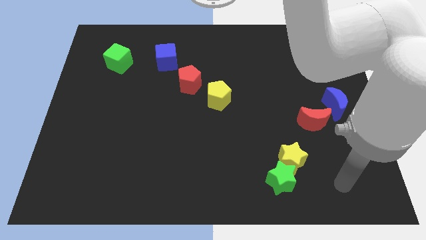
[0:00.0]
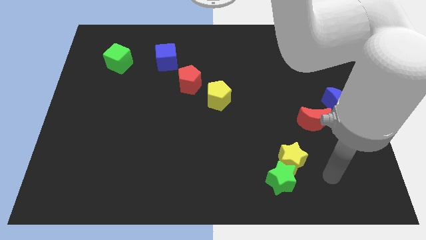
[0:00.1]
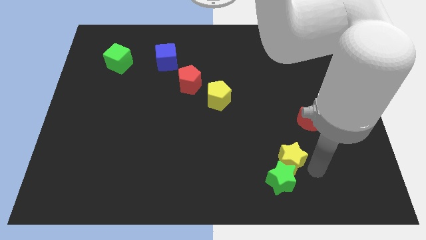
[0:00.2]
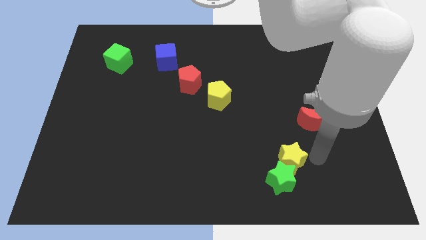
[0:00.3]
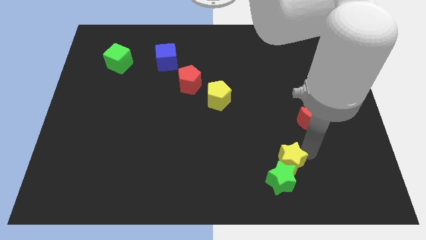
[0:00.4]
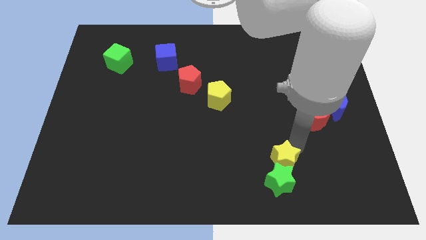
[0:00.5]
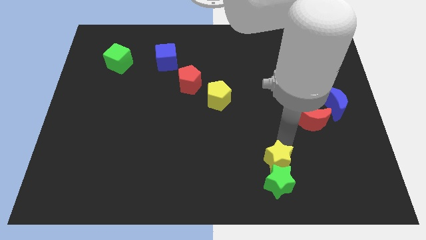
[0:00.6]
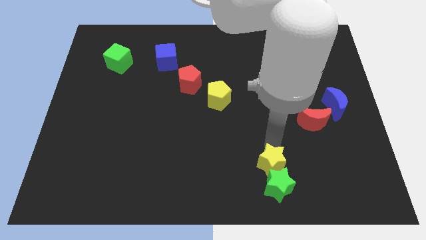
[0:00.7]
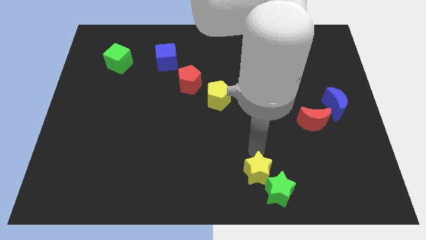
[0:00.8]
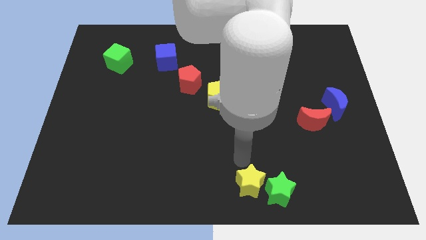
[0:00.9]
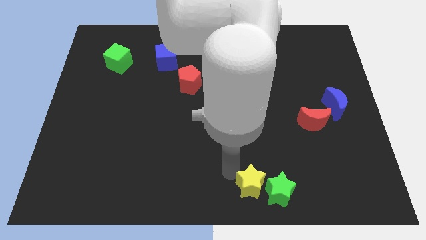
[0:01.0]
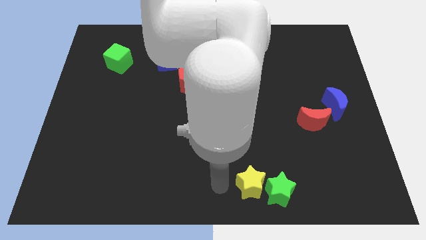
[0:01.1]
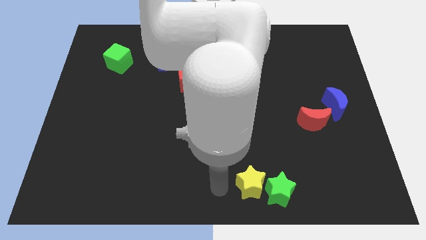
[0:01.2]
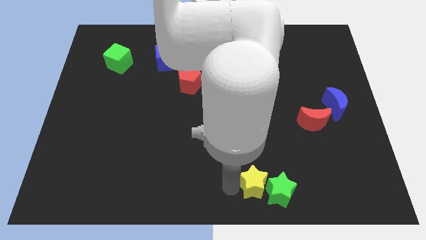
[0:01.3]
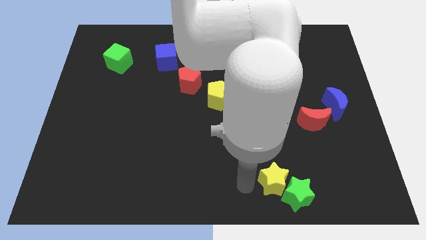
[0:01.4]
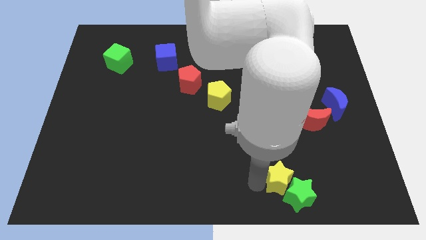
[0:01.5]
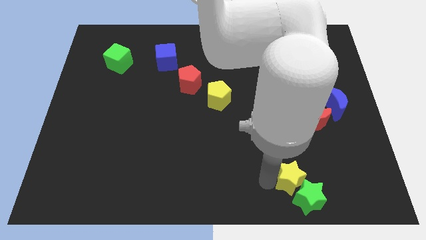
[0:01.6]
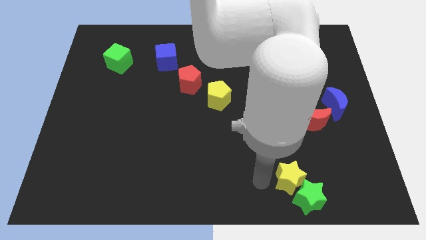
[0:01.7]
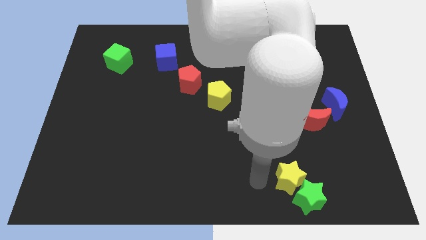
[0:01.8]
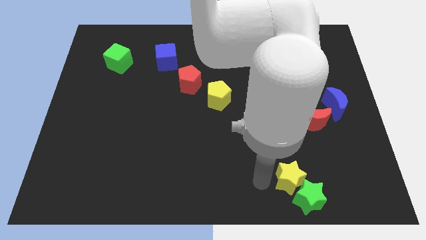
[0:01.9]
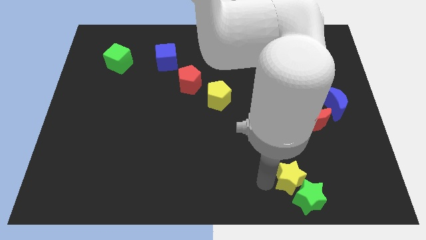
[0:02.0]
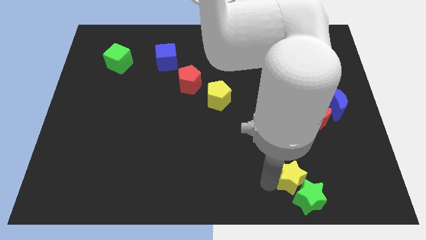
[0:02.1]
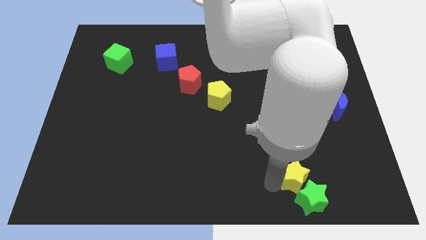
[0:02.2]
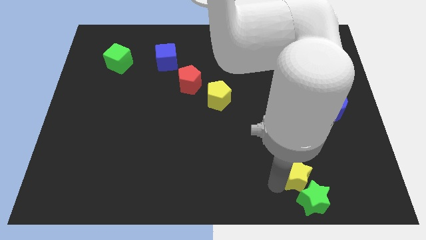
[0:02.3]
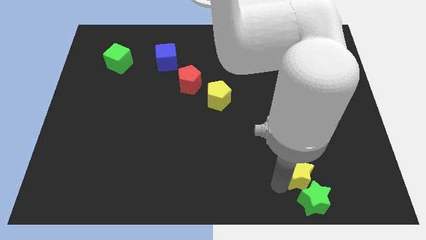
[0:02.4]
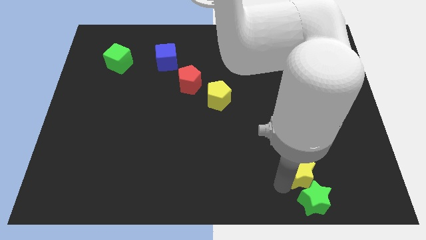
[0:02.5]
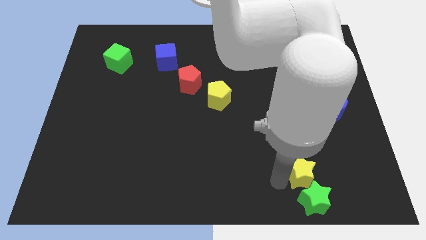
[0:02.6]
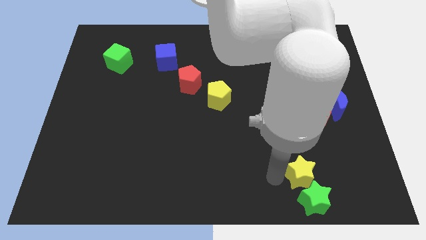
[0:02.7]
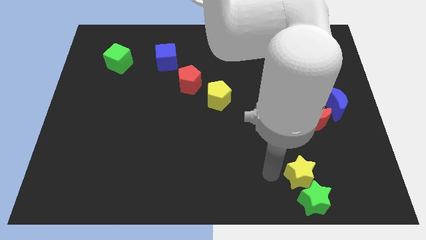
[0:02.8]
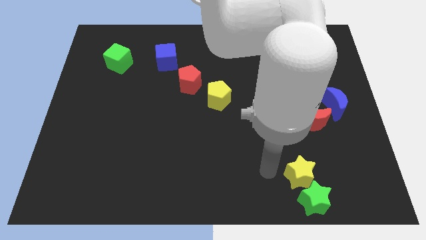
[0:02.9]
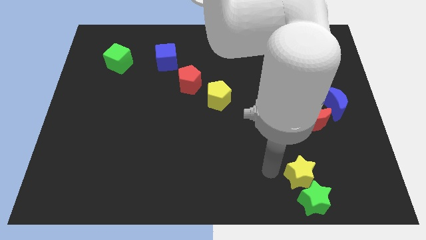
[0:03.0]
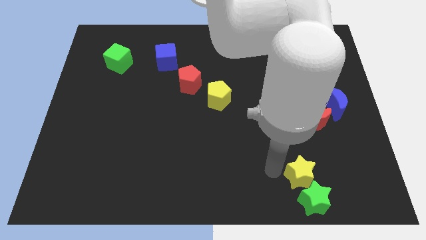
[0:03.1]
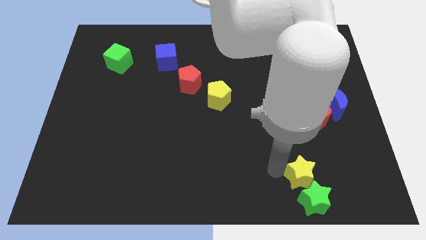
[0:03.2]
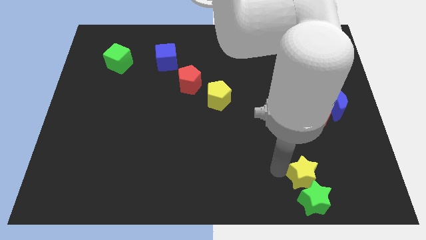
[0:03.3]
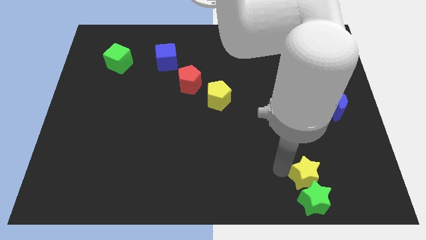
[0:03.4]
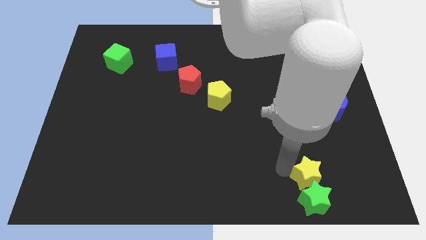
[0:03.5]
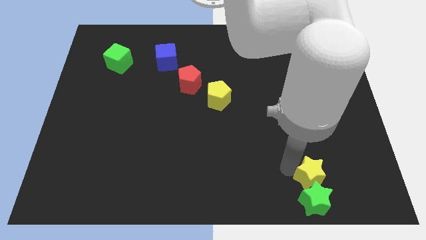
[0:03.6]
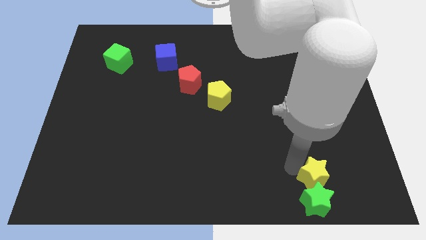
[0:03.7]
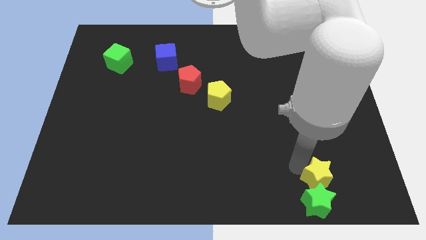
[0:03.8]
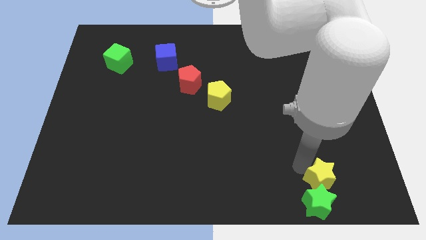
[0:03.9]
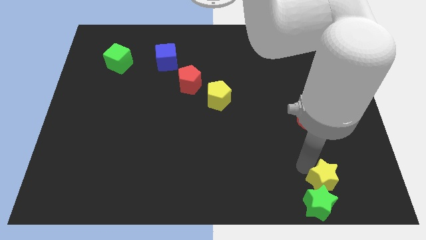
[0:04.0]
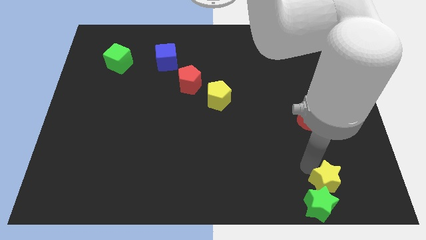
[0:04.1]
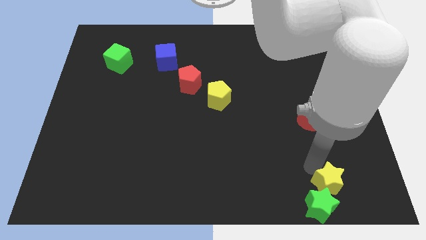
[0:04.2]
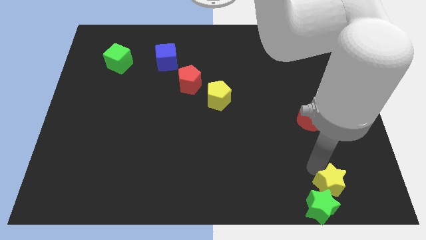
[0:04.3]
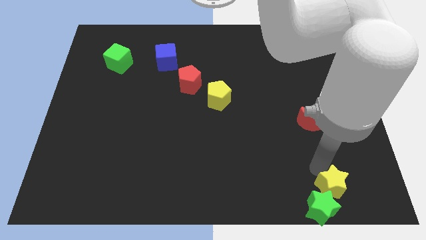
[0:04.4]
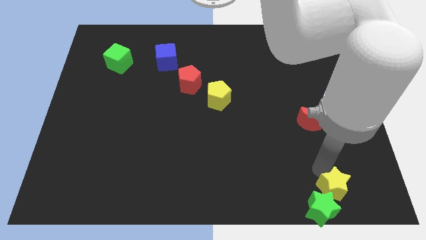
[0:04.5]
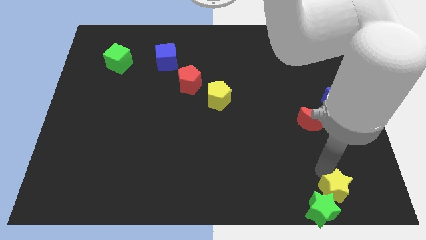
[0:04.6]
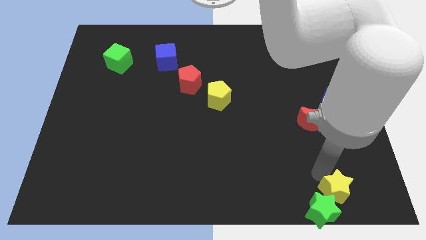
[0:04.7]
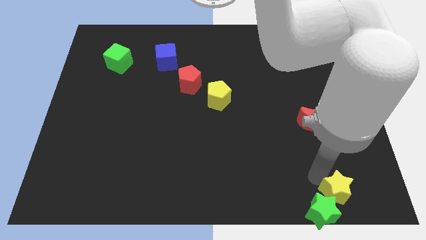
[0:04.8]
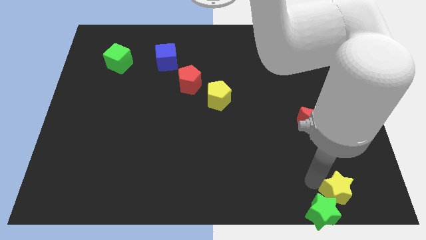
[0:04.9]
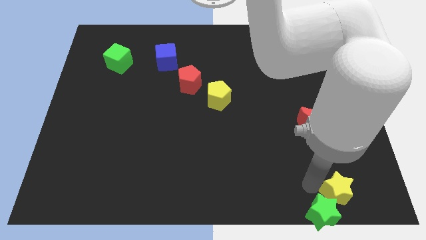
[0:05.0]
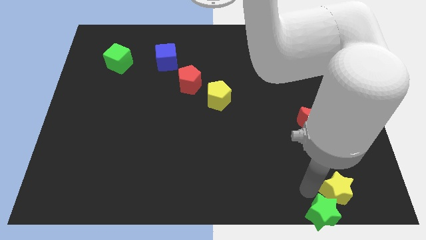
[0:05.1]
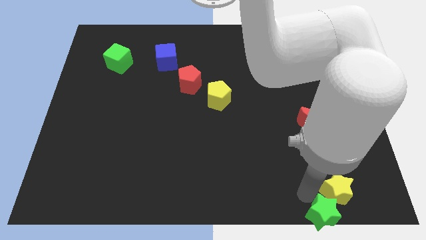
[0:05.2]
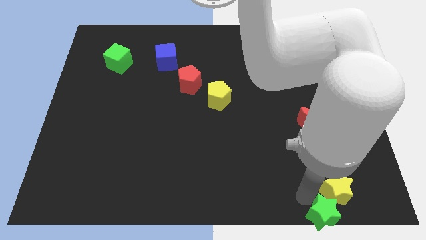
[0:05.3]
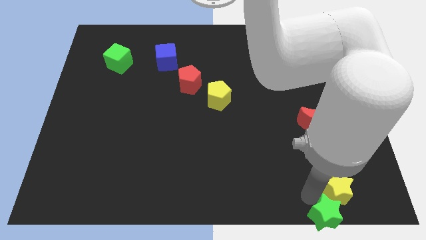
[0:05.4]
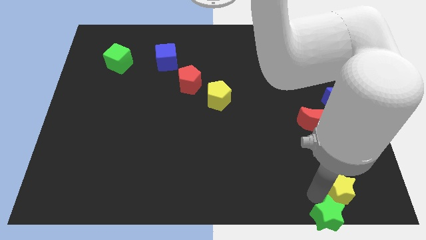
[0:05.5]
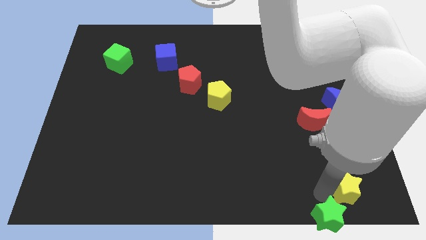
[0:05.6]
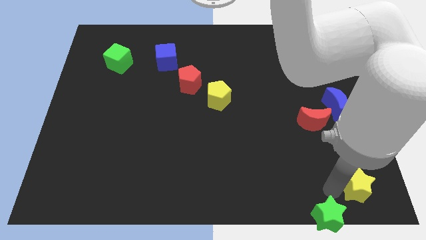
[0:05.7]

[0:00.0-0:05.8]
push the yellow star to the bottom right of the board
